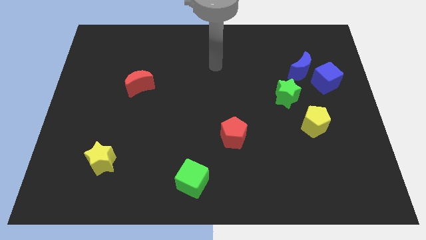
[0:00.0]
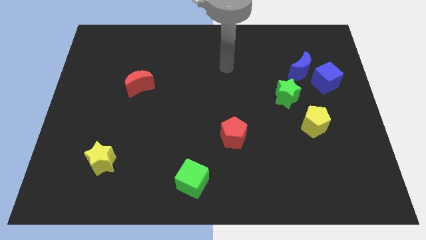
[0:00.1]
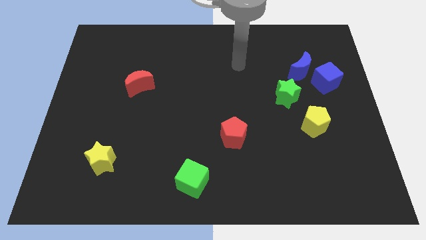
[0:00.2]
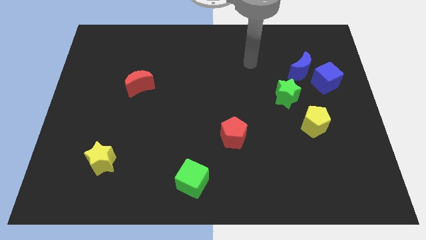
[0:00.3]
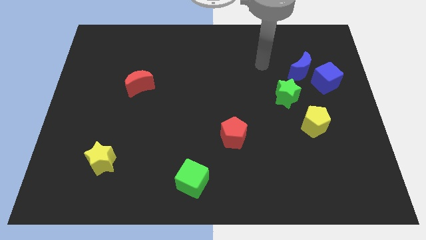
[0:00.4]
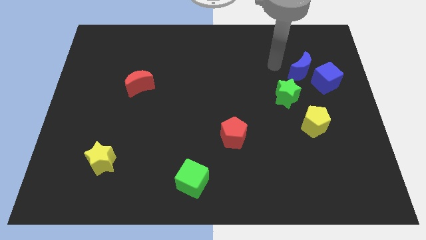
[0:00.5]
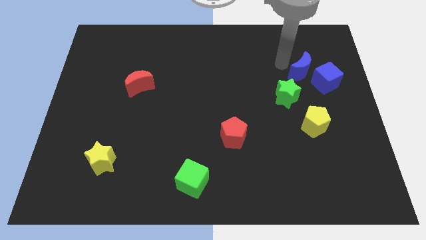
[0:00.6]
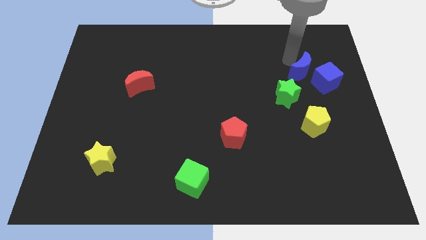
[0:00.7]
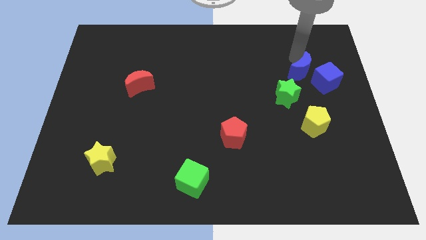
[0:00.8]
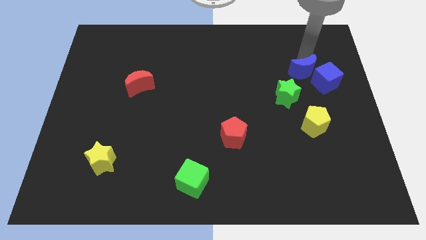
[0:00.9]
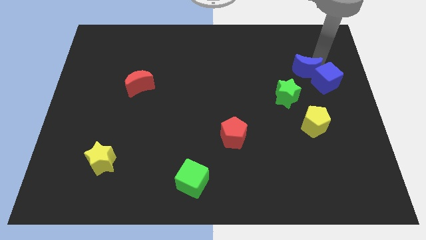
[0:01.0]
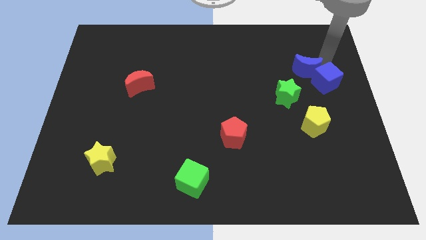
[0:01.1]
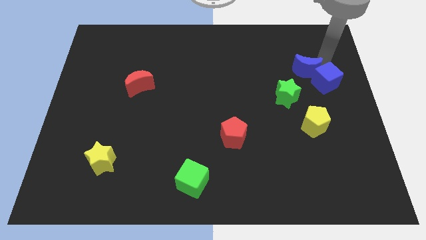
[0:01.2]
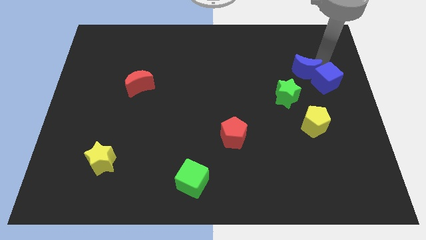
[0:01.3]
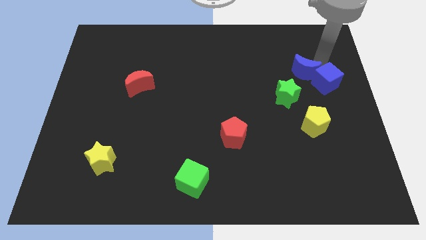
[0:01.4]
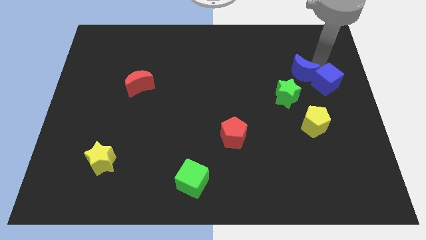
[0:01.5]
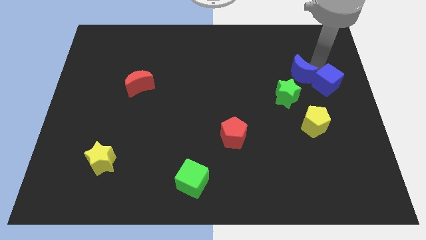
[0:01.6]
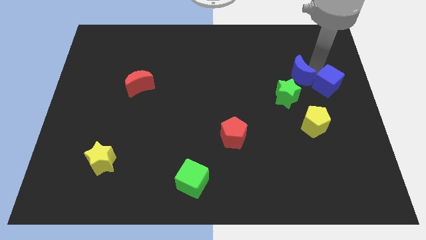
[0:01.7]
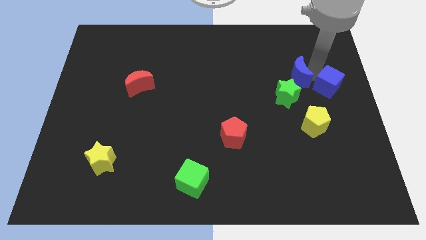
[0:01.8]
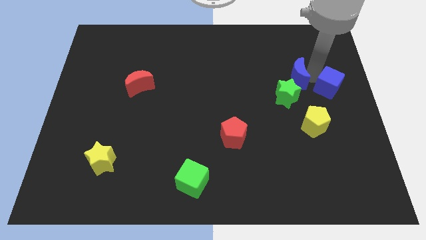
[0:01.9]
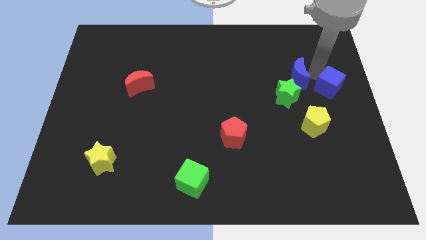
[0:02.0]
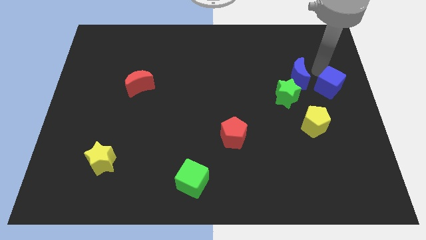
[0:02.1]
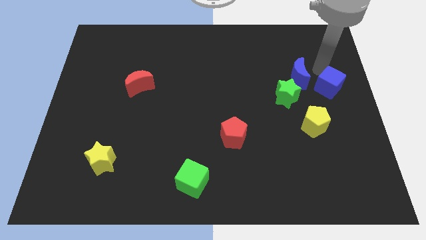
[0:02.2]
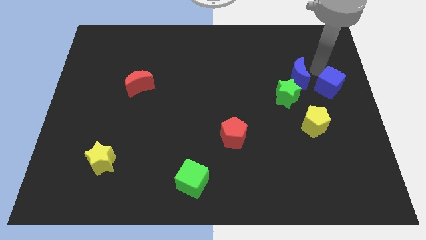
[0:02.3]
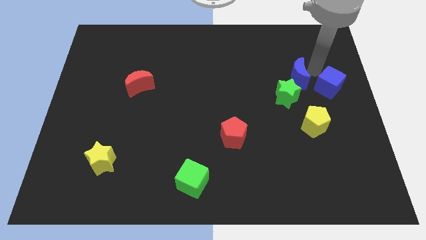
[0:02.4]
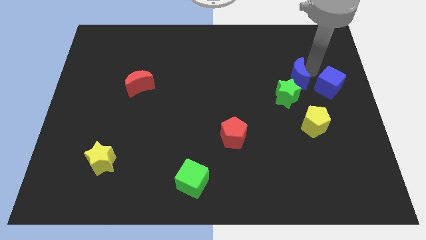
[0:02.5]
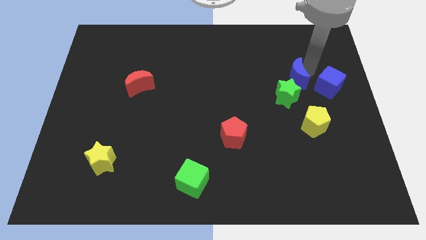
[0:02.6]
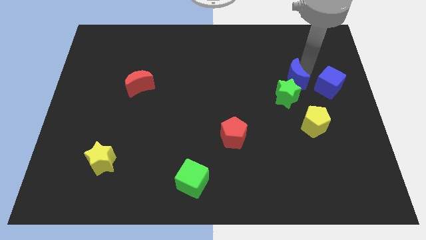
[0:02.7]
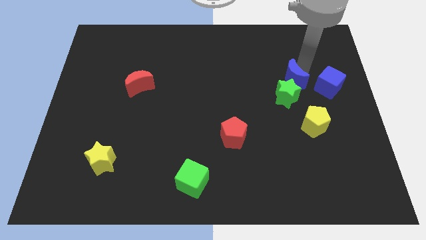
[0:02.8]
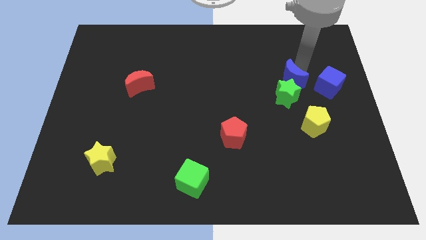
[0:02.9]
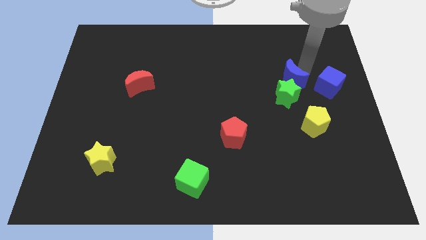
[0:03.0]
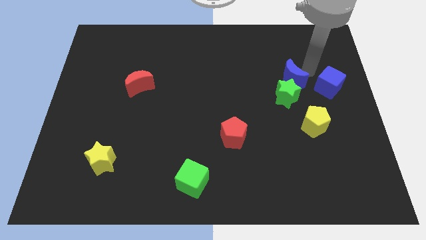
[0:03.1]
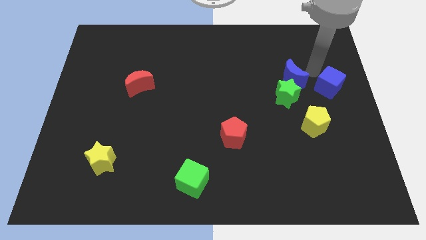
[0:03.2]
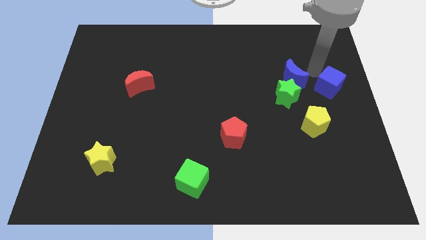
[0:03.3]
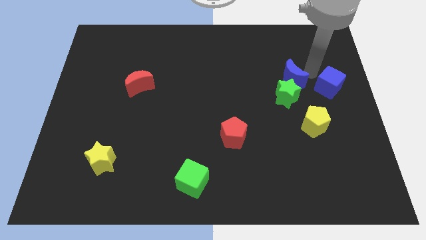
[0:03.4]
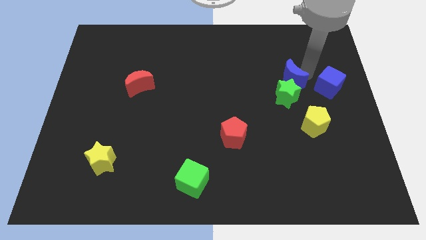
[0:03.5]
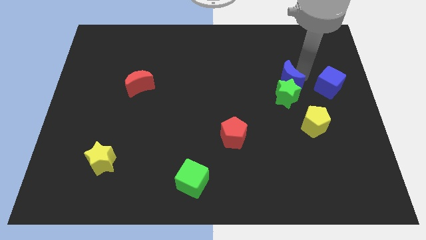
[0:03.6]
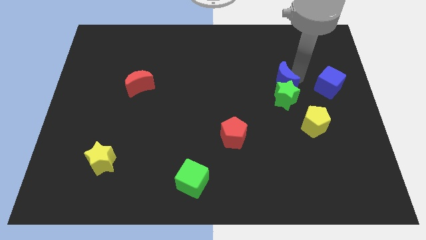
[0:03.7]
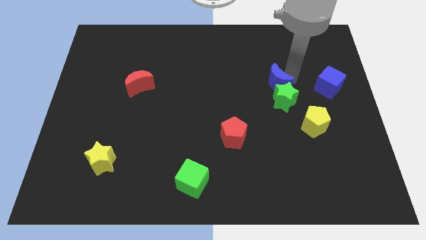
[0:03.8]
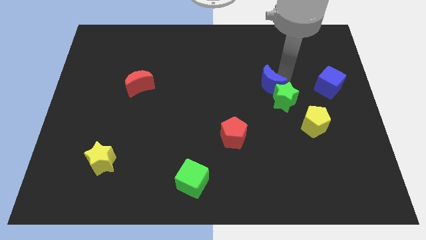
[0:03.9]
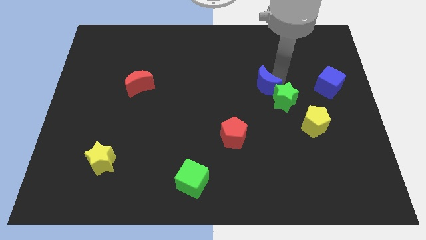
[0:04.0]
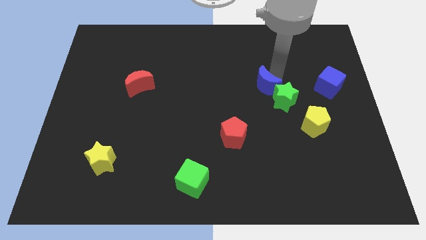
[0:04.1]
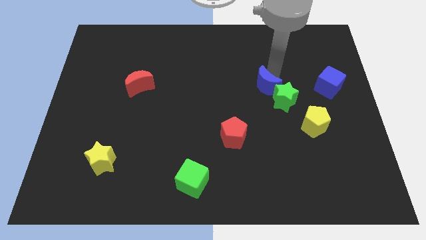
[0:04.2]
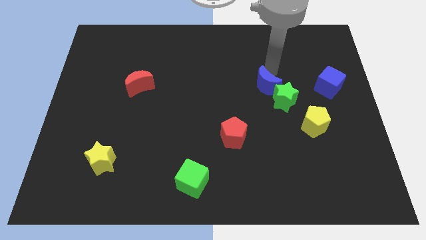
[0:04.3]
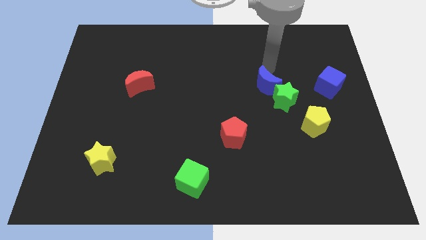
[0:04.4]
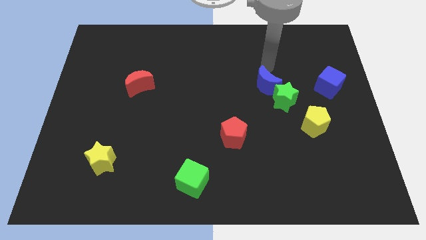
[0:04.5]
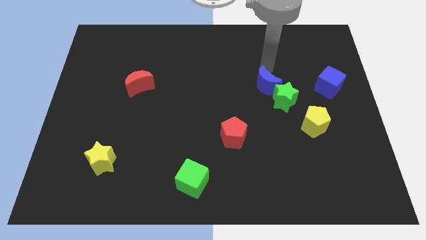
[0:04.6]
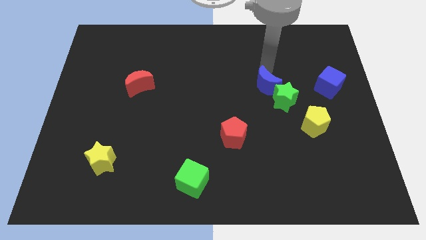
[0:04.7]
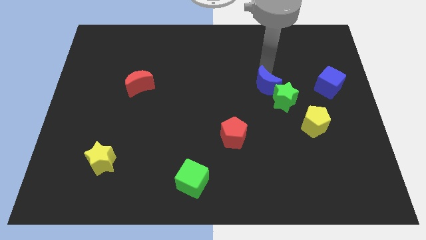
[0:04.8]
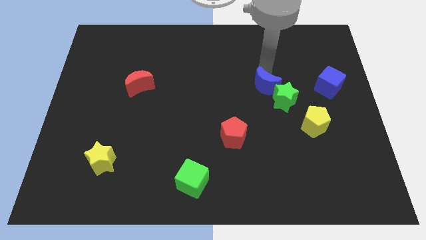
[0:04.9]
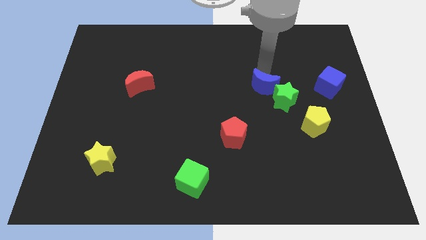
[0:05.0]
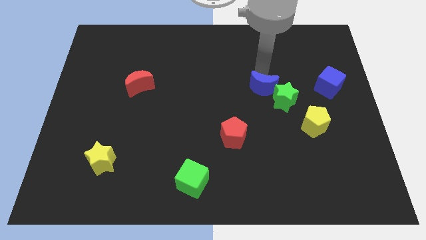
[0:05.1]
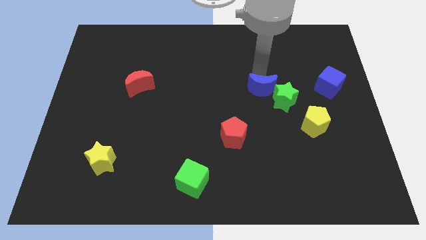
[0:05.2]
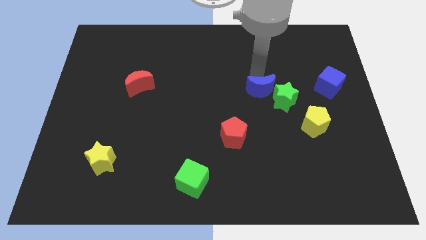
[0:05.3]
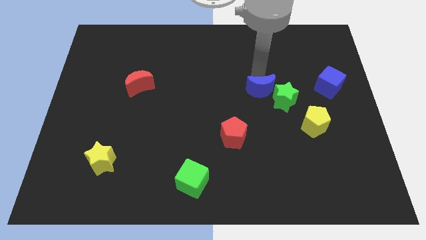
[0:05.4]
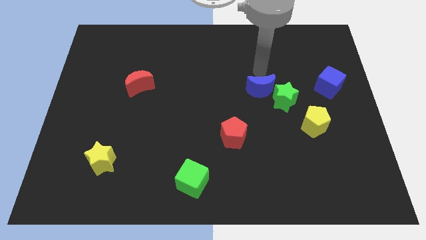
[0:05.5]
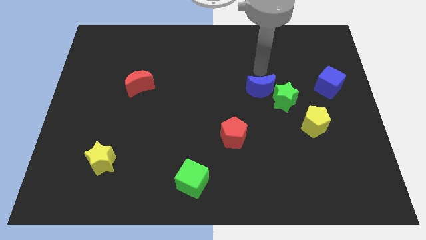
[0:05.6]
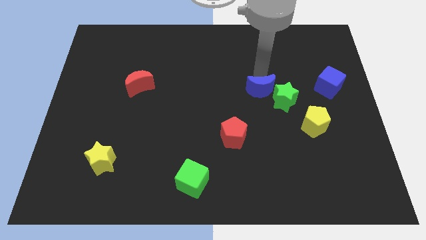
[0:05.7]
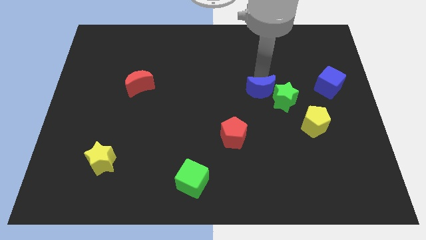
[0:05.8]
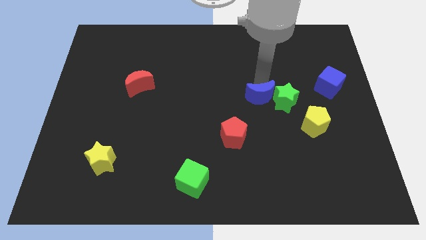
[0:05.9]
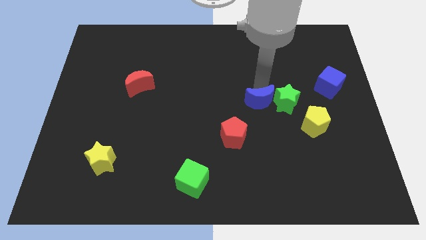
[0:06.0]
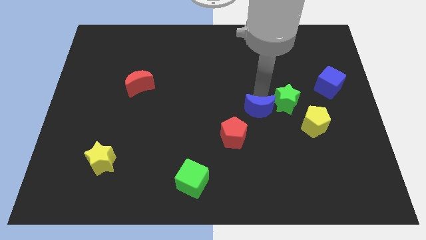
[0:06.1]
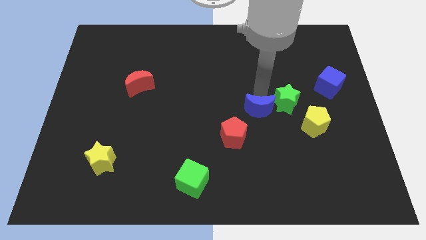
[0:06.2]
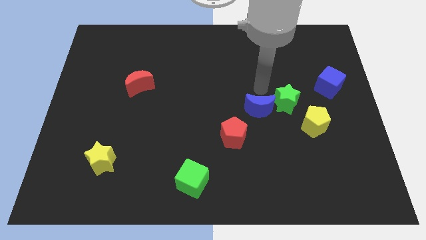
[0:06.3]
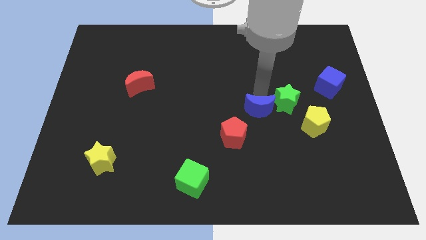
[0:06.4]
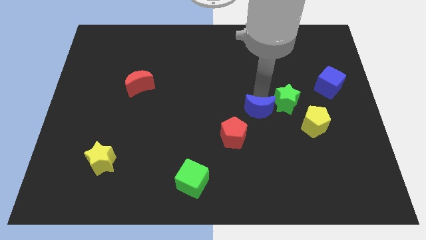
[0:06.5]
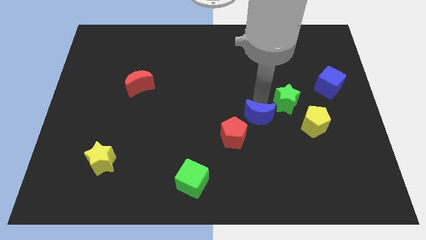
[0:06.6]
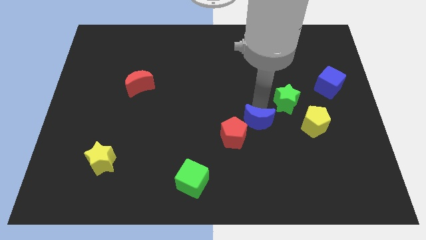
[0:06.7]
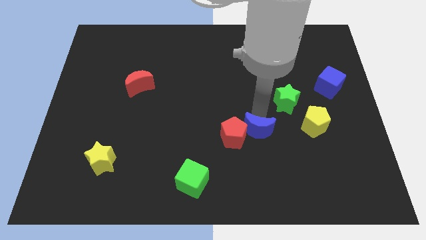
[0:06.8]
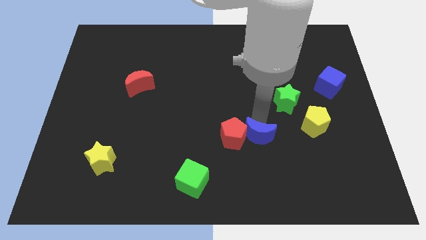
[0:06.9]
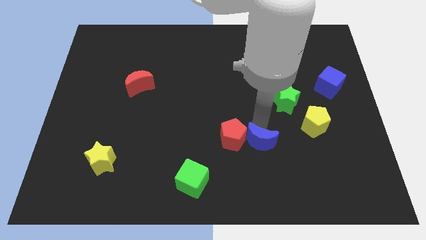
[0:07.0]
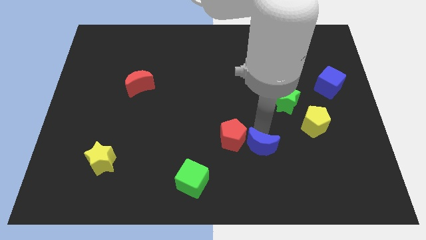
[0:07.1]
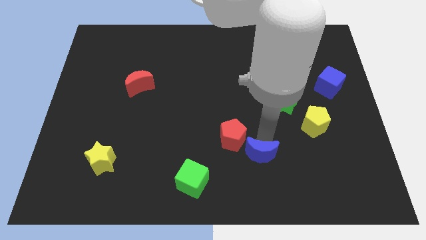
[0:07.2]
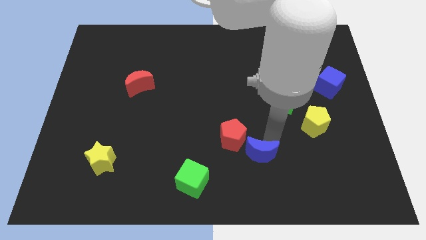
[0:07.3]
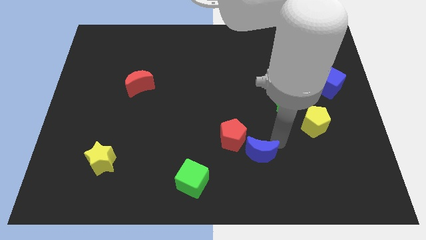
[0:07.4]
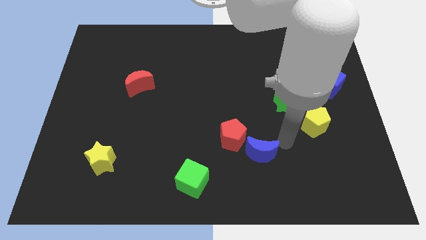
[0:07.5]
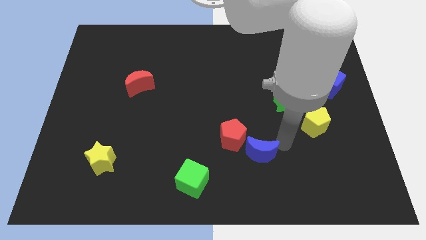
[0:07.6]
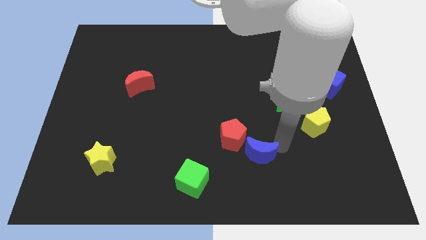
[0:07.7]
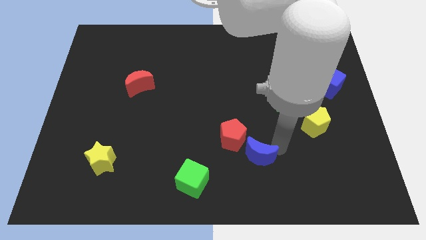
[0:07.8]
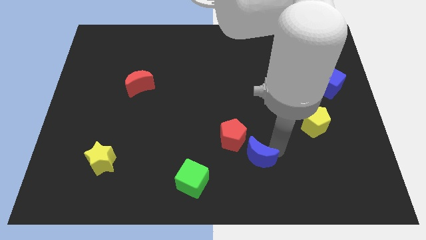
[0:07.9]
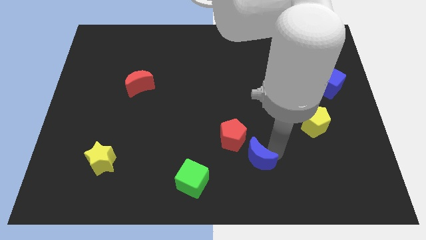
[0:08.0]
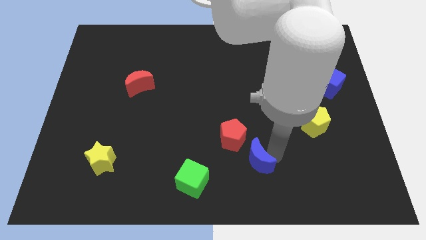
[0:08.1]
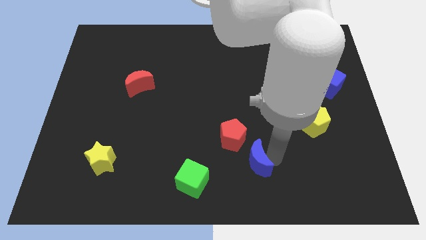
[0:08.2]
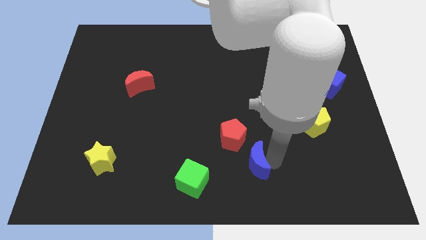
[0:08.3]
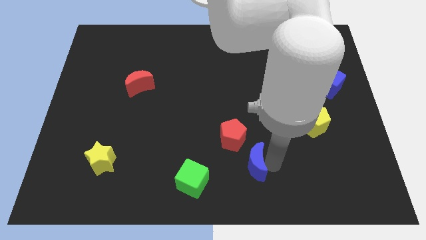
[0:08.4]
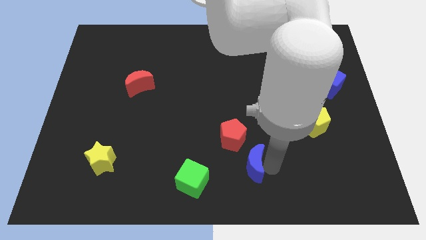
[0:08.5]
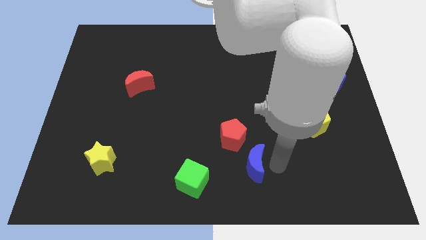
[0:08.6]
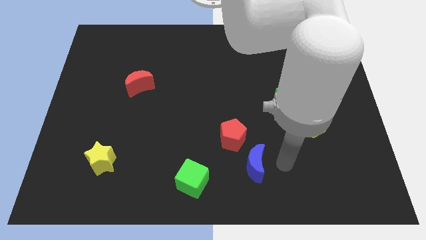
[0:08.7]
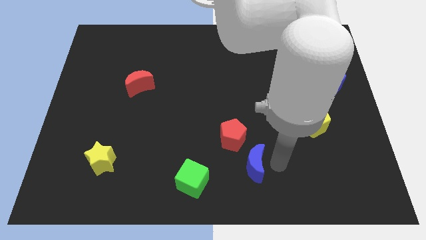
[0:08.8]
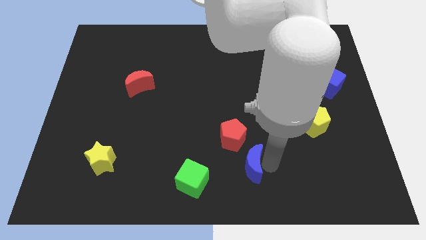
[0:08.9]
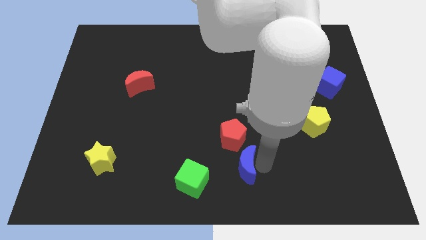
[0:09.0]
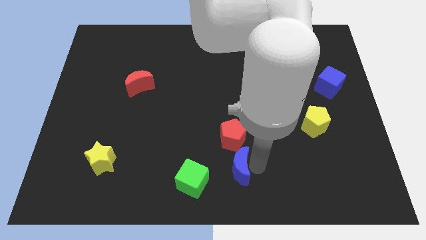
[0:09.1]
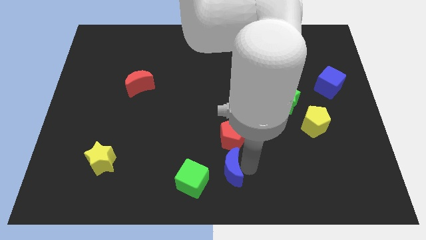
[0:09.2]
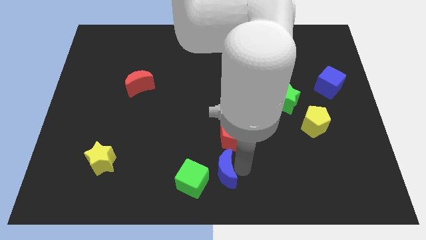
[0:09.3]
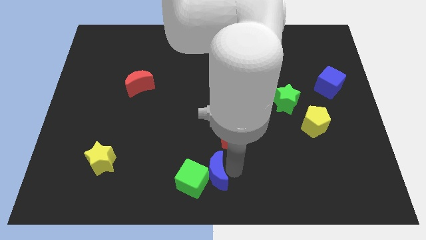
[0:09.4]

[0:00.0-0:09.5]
put the blue moon close to the green cube
